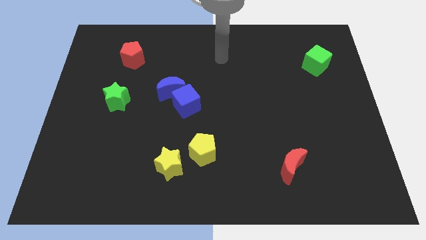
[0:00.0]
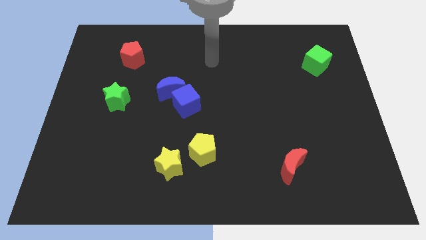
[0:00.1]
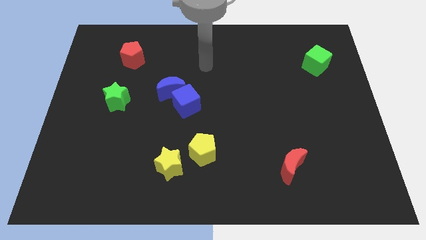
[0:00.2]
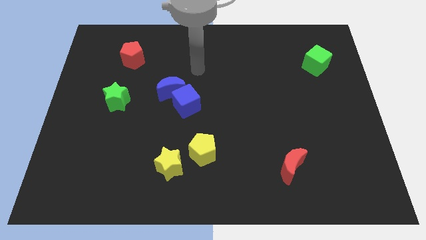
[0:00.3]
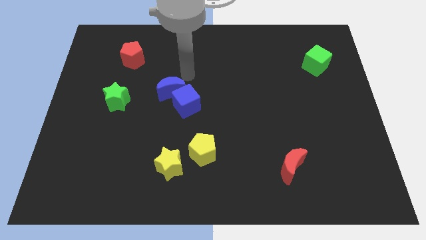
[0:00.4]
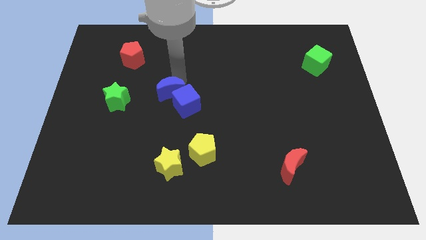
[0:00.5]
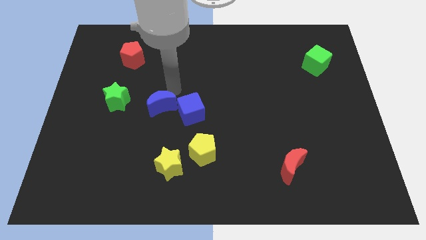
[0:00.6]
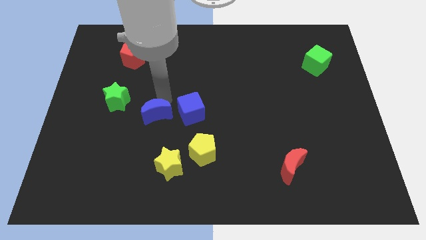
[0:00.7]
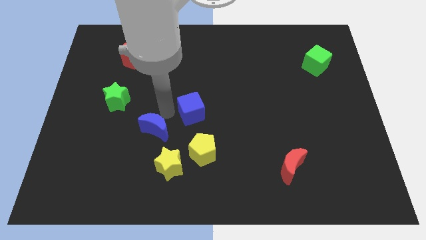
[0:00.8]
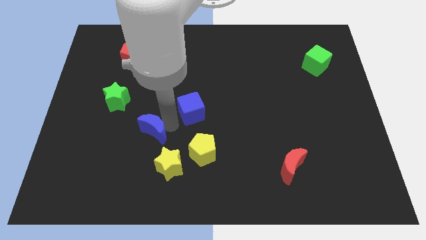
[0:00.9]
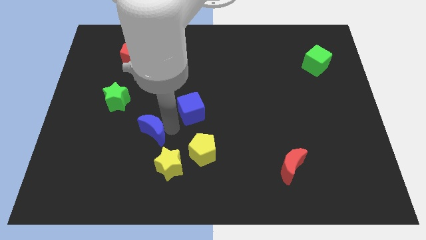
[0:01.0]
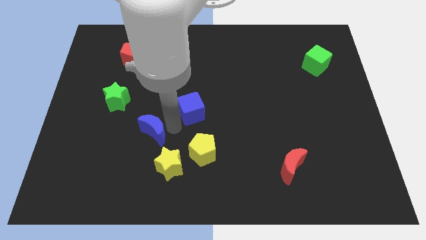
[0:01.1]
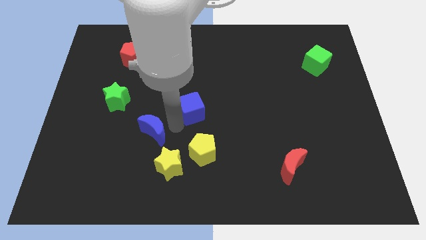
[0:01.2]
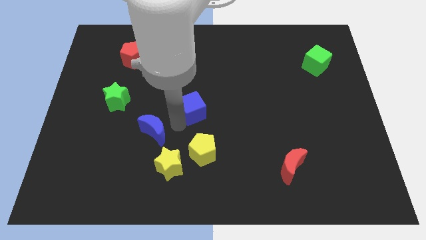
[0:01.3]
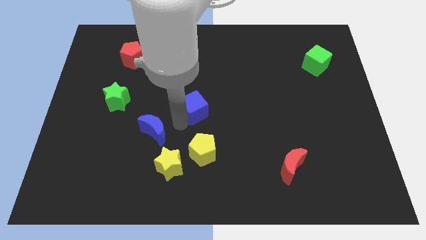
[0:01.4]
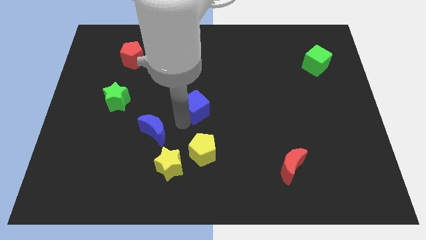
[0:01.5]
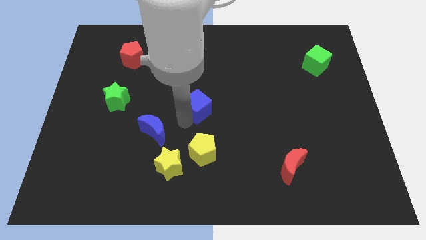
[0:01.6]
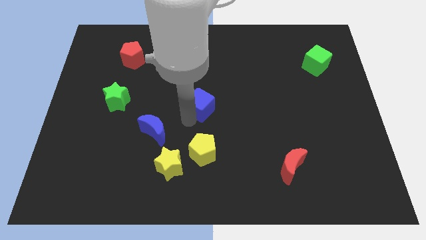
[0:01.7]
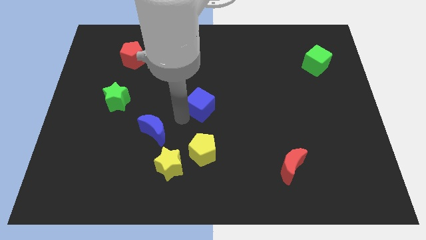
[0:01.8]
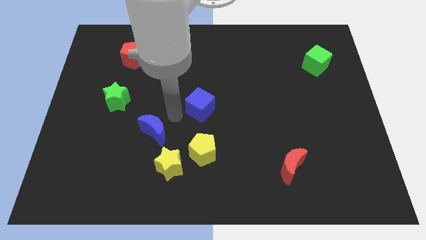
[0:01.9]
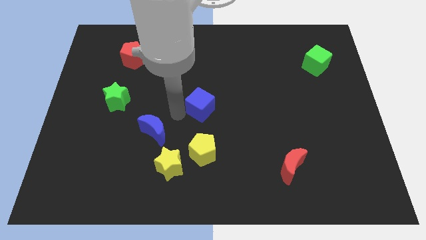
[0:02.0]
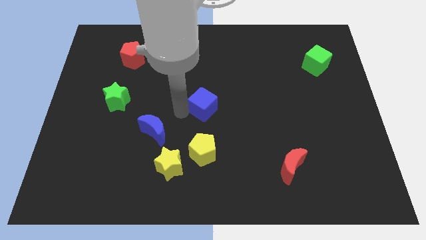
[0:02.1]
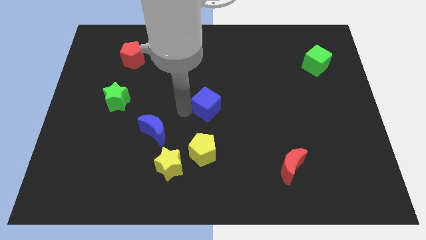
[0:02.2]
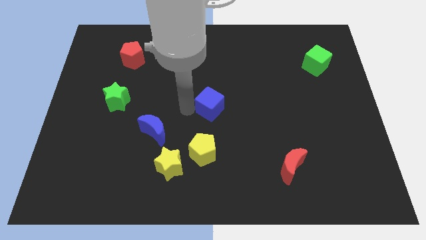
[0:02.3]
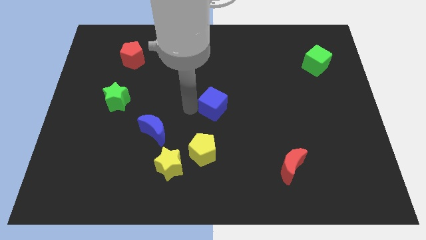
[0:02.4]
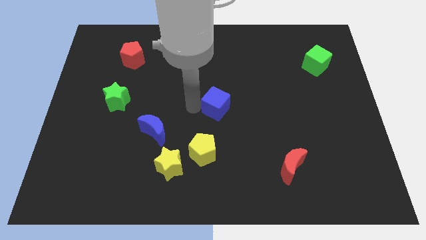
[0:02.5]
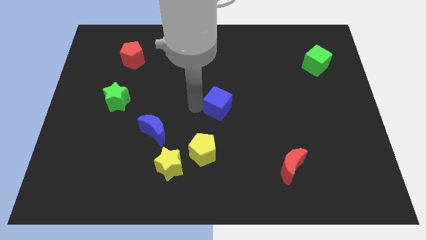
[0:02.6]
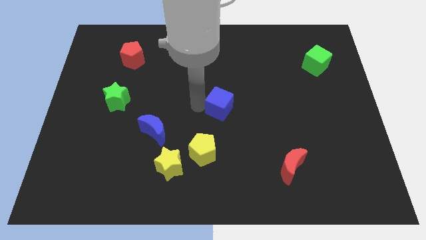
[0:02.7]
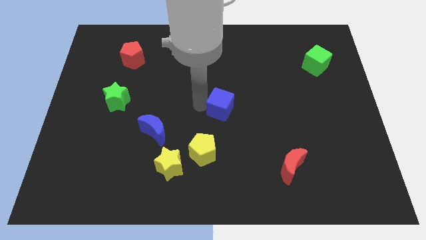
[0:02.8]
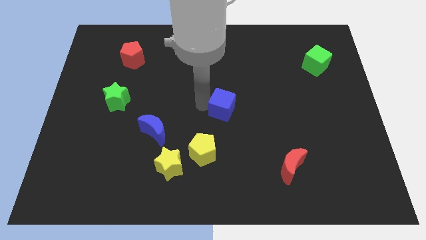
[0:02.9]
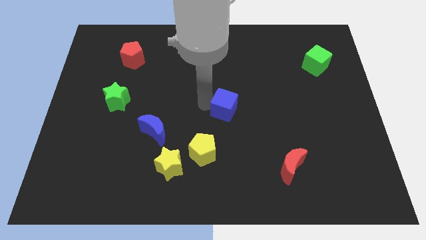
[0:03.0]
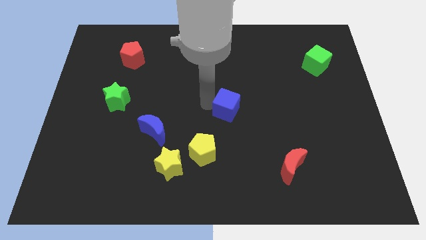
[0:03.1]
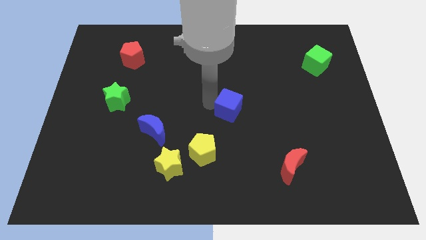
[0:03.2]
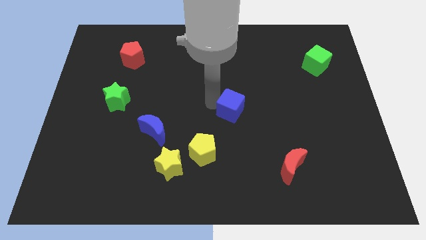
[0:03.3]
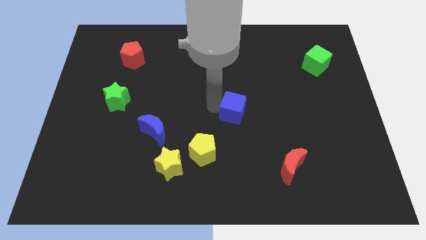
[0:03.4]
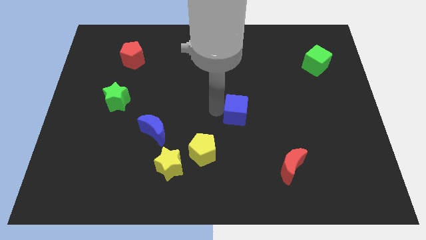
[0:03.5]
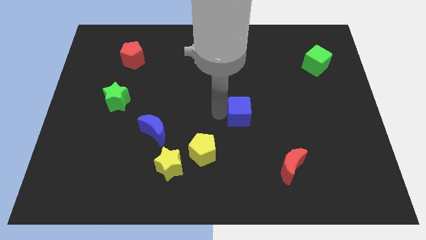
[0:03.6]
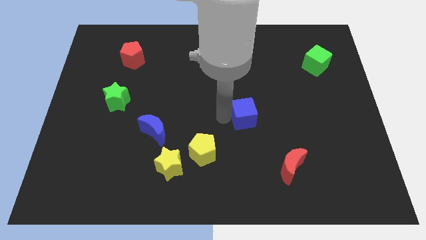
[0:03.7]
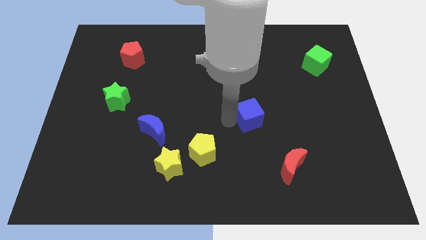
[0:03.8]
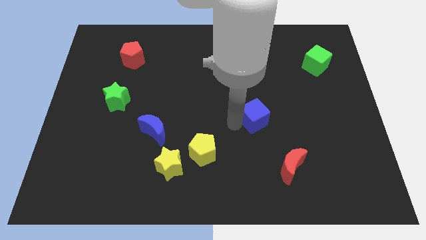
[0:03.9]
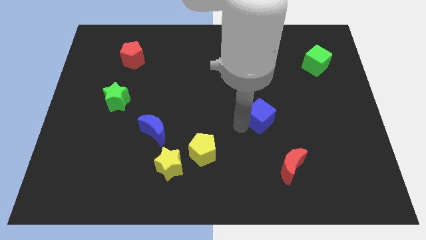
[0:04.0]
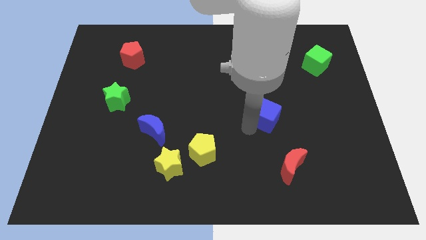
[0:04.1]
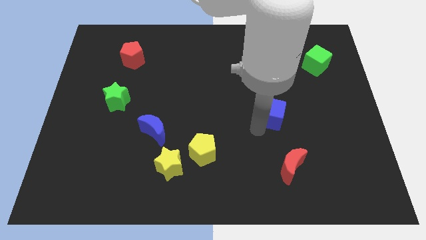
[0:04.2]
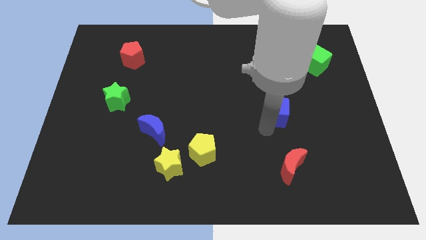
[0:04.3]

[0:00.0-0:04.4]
slide the blue cube to the right

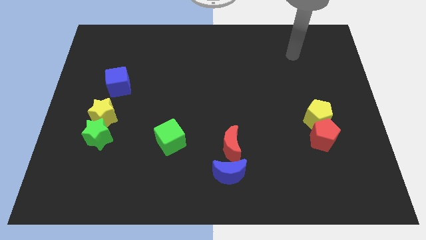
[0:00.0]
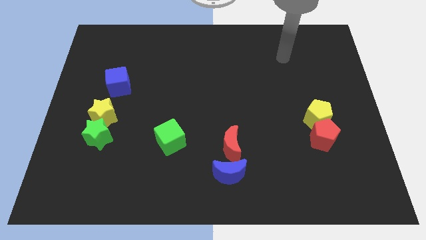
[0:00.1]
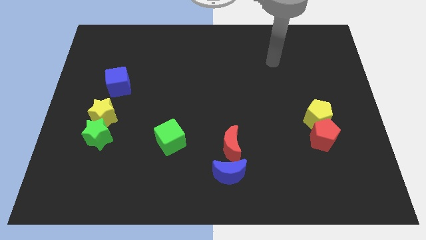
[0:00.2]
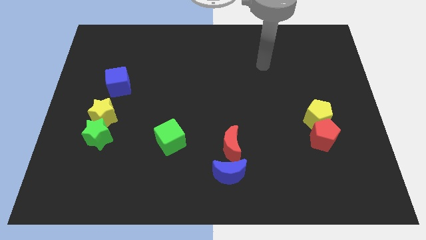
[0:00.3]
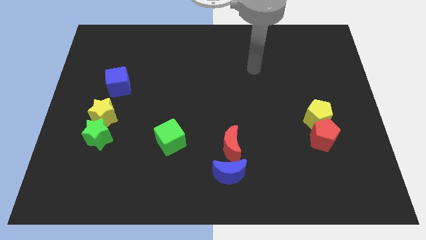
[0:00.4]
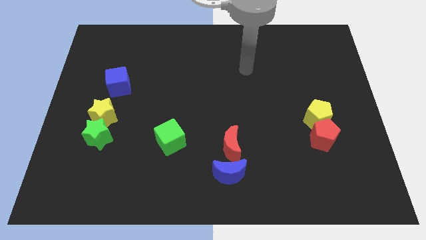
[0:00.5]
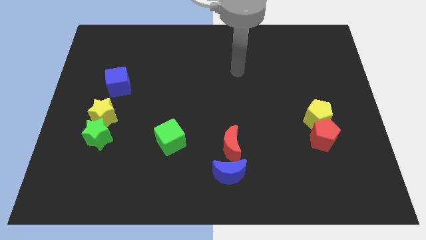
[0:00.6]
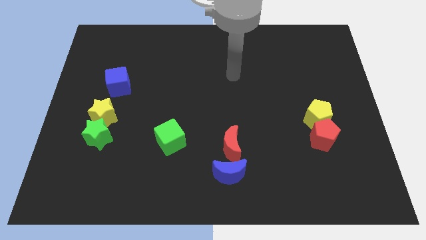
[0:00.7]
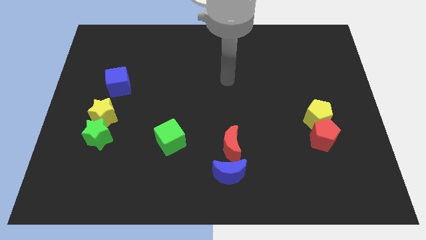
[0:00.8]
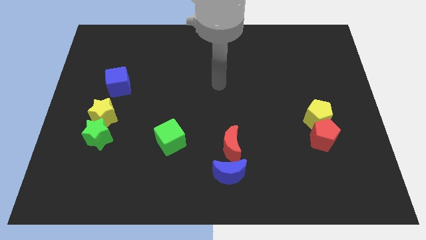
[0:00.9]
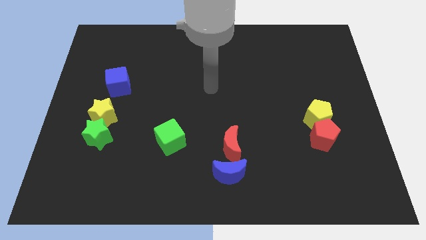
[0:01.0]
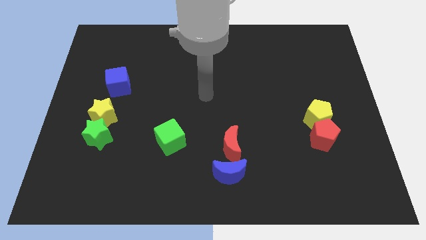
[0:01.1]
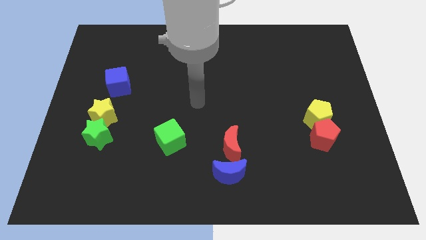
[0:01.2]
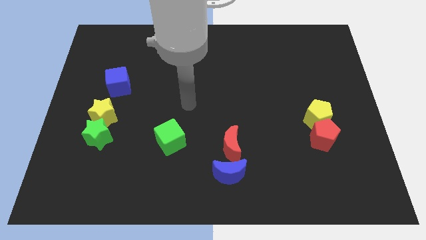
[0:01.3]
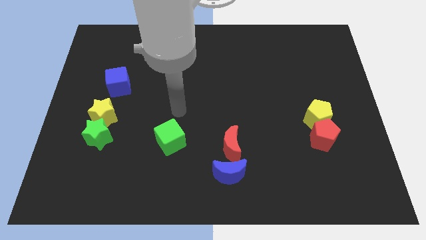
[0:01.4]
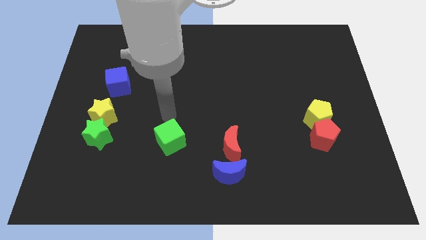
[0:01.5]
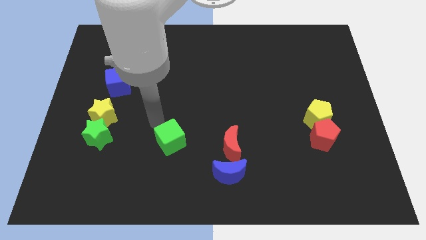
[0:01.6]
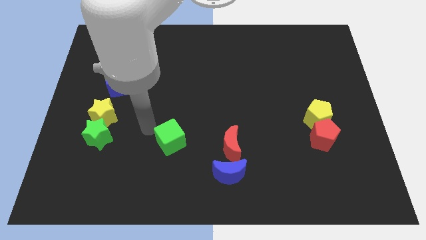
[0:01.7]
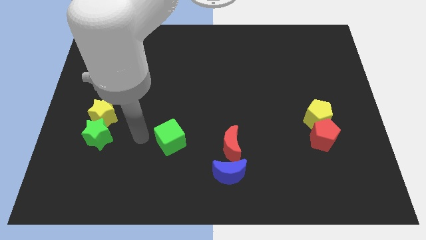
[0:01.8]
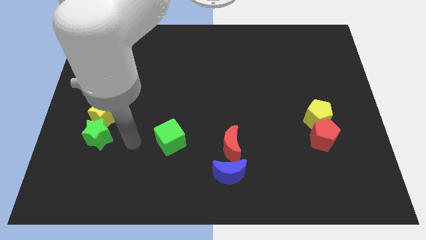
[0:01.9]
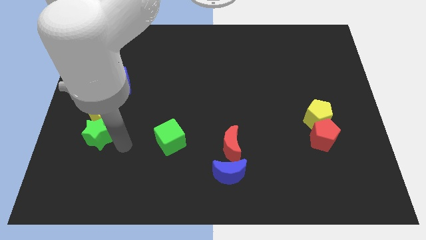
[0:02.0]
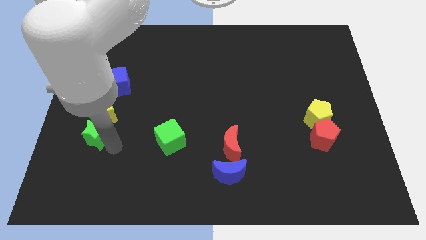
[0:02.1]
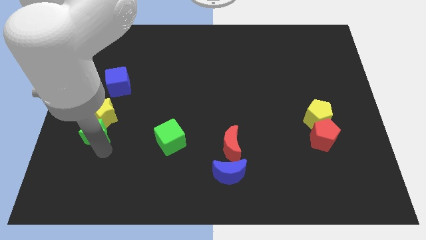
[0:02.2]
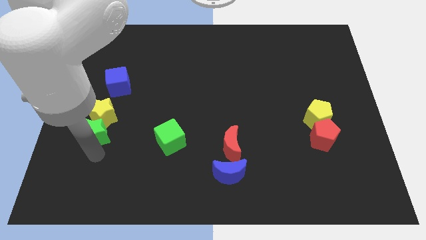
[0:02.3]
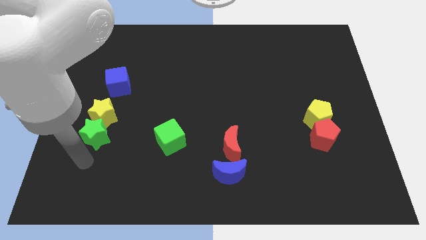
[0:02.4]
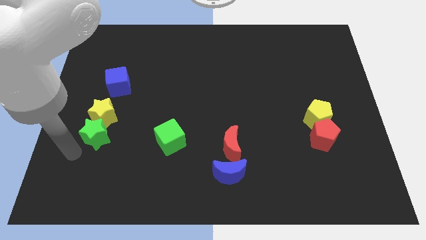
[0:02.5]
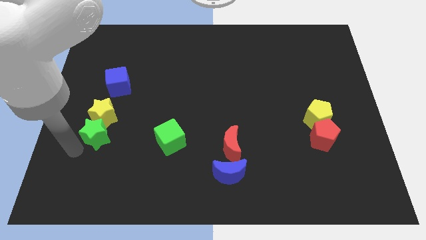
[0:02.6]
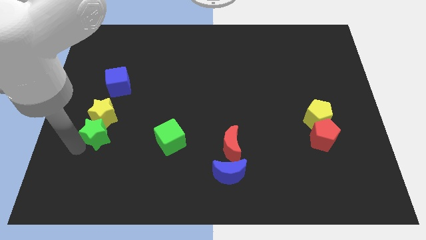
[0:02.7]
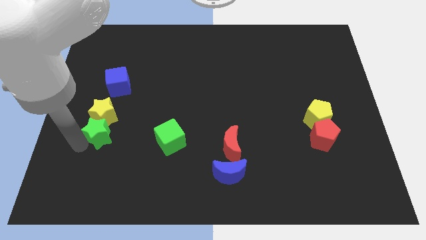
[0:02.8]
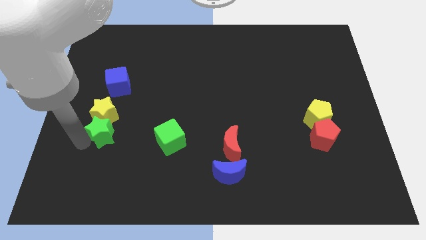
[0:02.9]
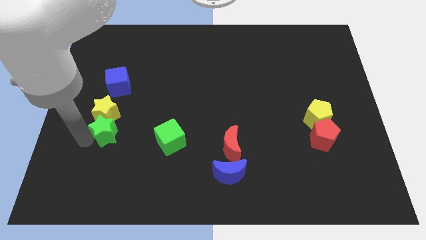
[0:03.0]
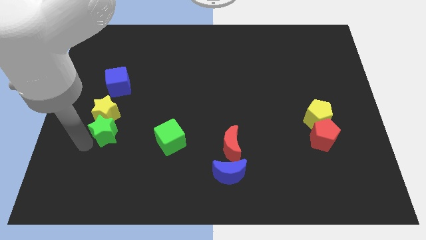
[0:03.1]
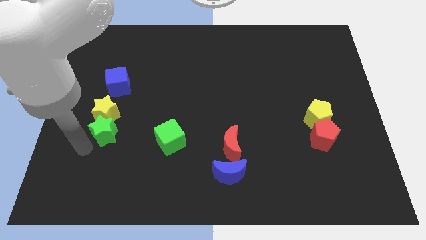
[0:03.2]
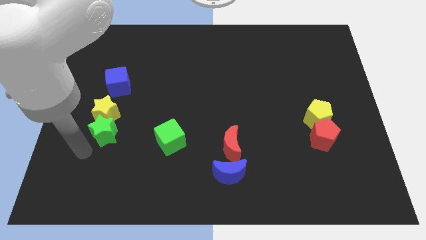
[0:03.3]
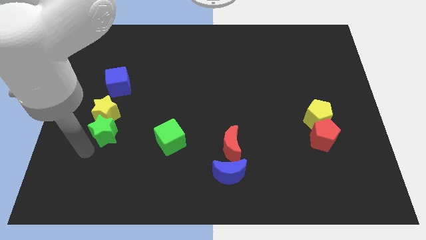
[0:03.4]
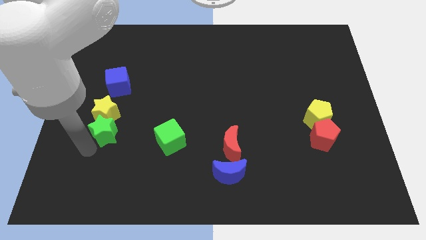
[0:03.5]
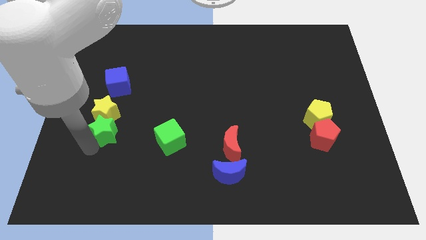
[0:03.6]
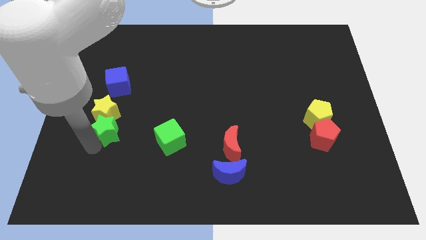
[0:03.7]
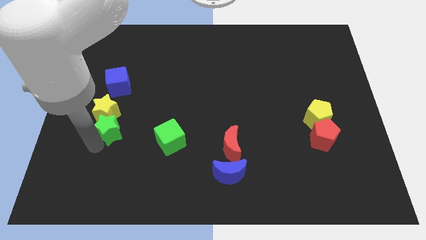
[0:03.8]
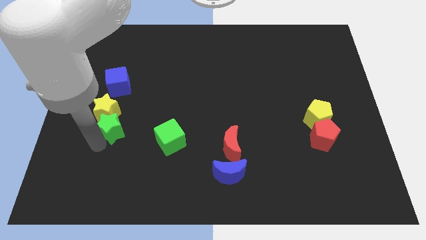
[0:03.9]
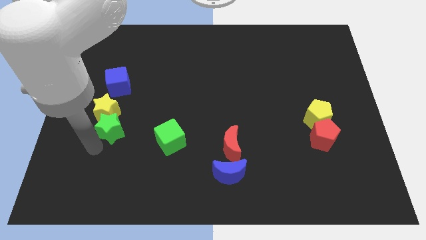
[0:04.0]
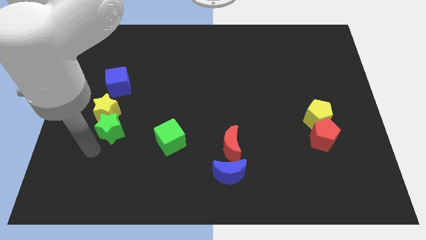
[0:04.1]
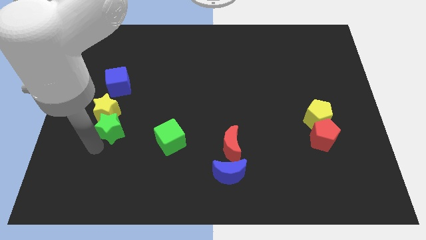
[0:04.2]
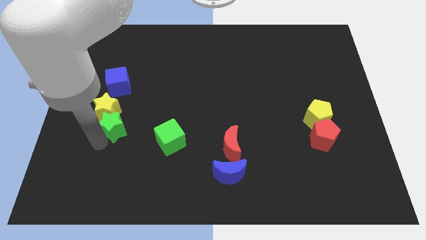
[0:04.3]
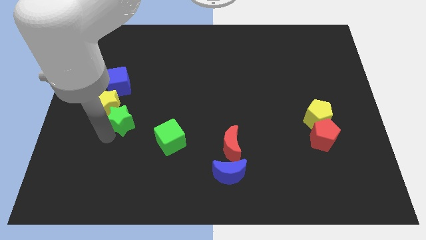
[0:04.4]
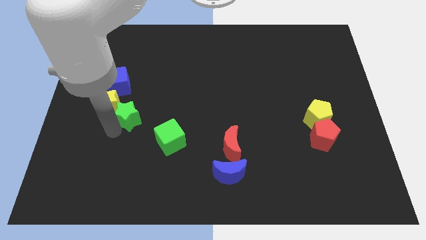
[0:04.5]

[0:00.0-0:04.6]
move the green star upwards and to the right diagonally a little
